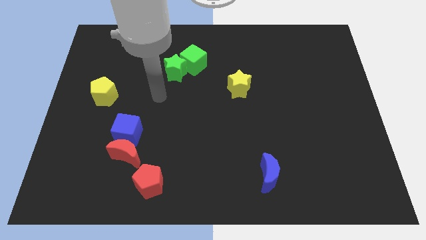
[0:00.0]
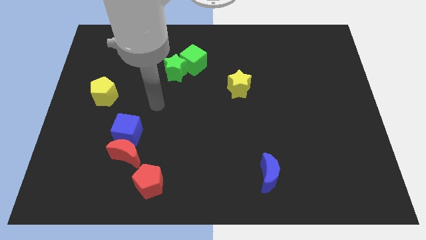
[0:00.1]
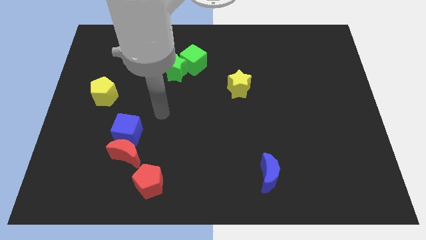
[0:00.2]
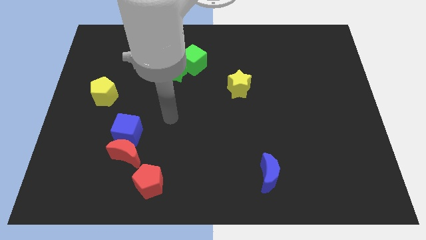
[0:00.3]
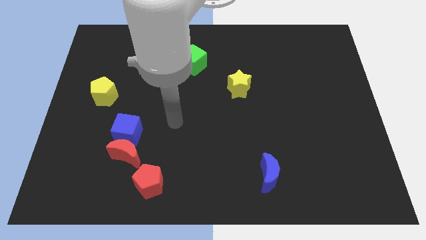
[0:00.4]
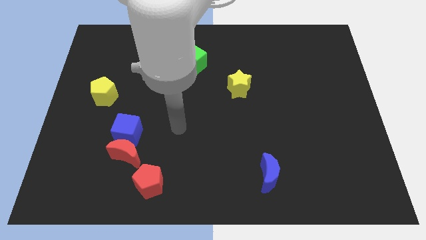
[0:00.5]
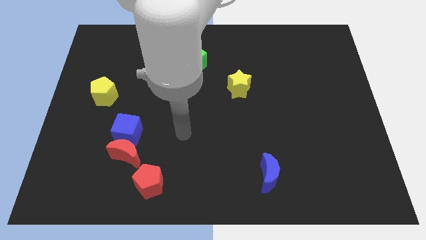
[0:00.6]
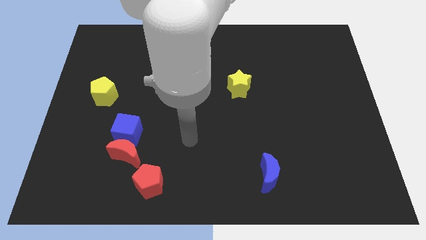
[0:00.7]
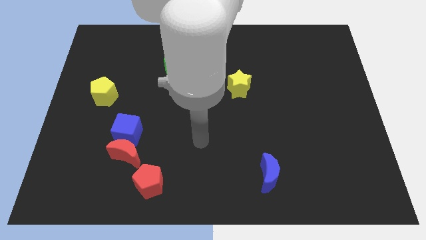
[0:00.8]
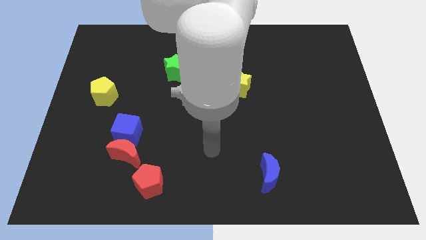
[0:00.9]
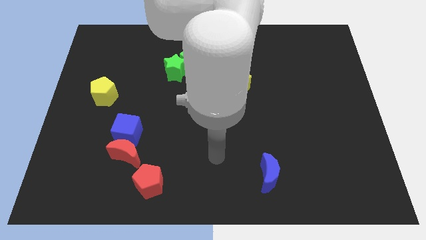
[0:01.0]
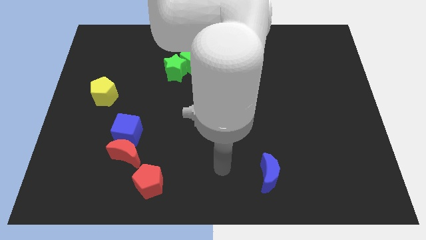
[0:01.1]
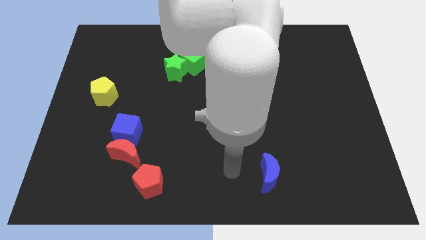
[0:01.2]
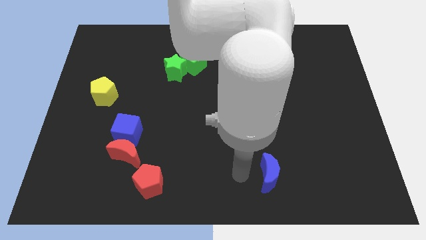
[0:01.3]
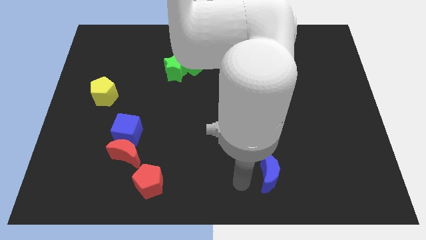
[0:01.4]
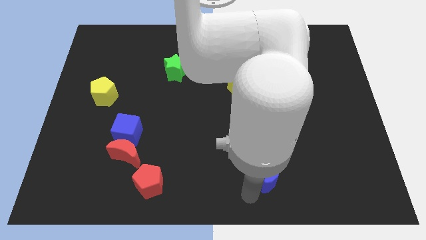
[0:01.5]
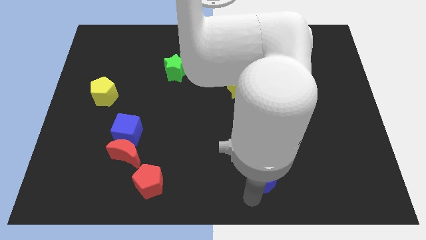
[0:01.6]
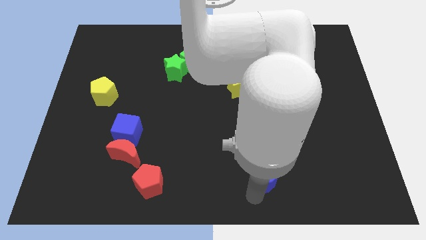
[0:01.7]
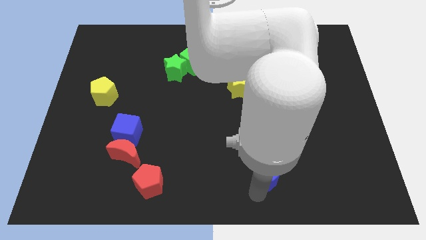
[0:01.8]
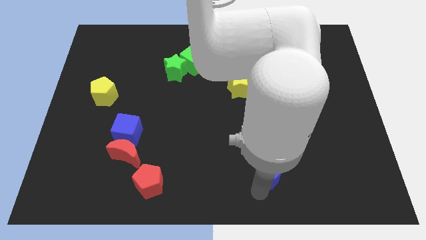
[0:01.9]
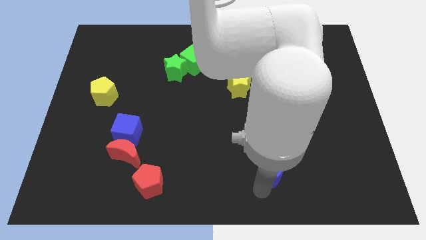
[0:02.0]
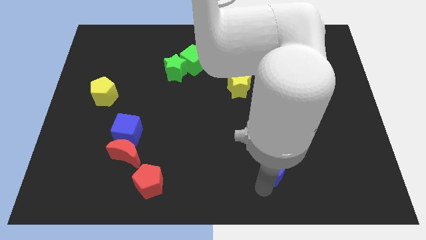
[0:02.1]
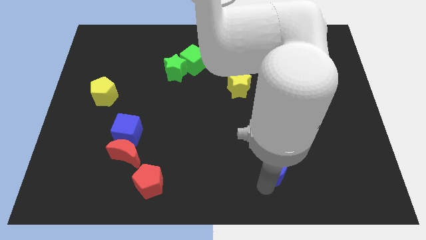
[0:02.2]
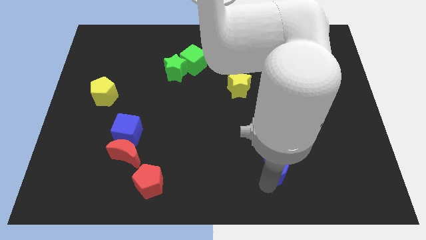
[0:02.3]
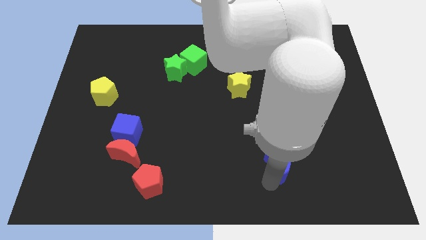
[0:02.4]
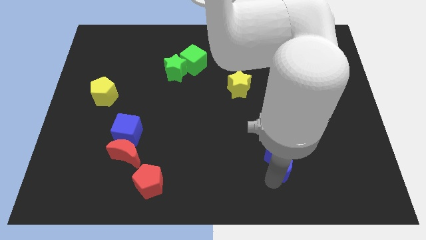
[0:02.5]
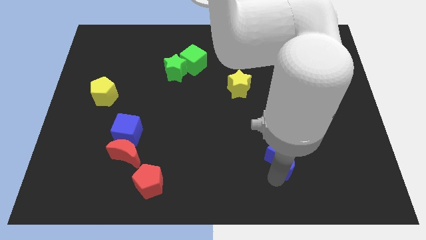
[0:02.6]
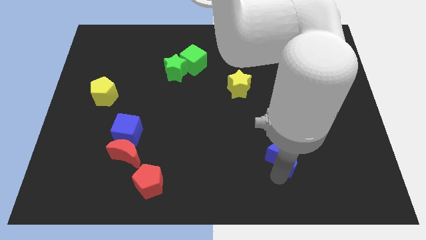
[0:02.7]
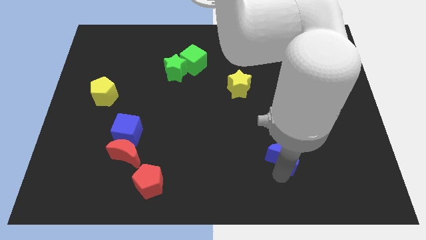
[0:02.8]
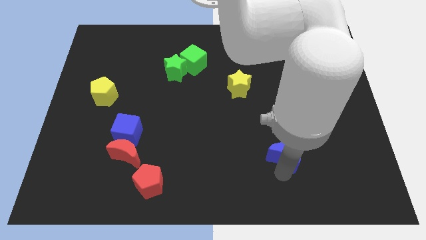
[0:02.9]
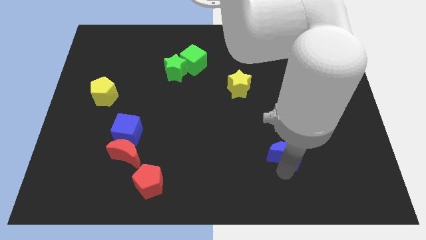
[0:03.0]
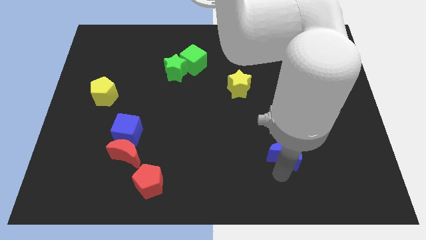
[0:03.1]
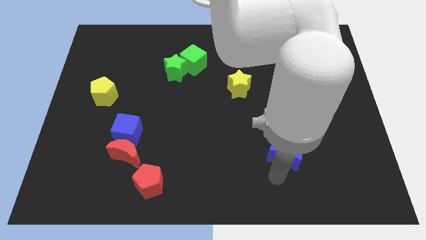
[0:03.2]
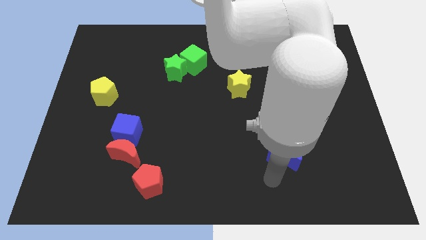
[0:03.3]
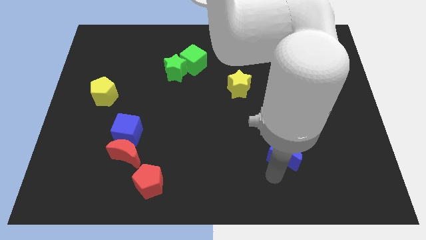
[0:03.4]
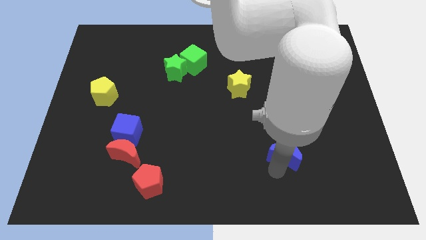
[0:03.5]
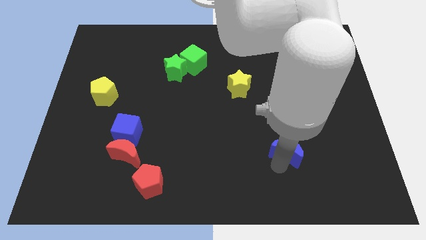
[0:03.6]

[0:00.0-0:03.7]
move the blue moon diagonally upwards and right somewhat

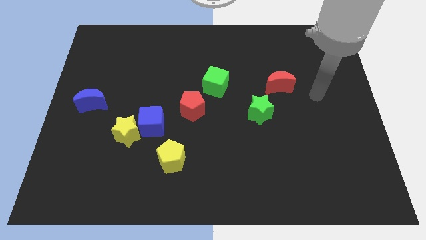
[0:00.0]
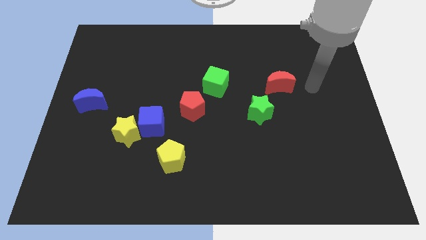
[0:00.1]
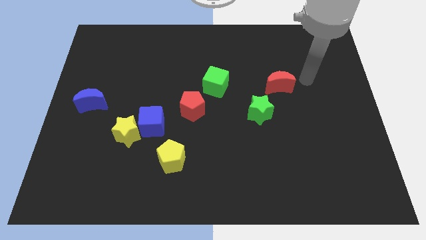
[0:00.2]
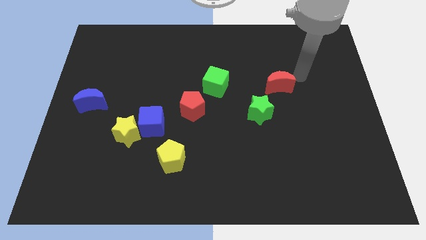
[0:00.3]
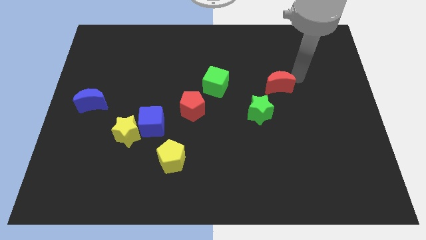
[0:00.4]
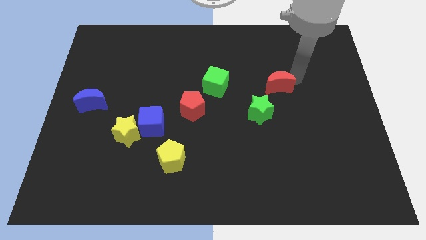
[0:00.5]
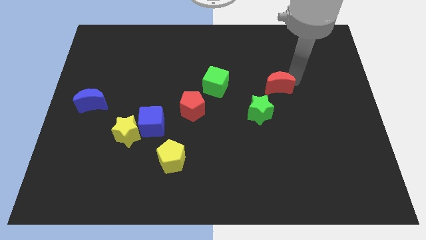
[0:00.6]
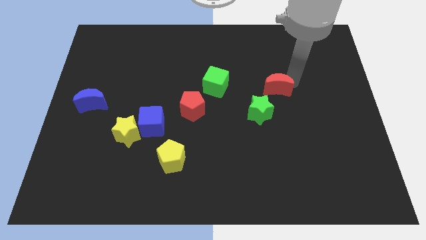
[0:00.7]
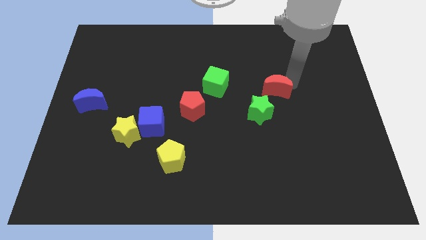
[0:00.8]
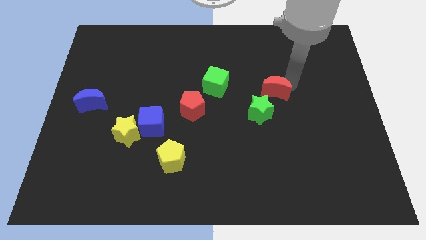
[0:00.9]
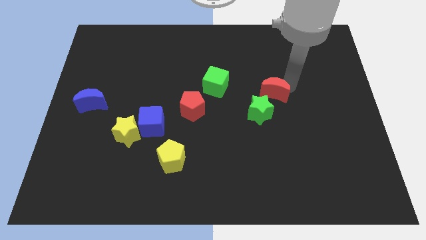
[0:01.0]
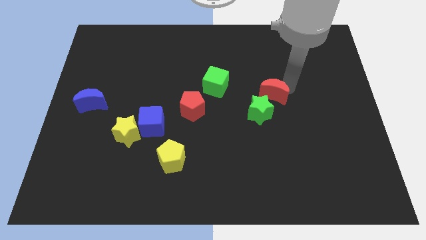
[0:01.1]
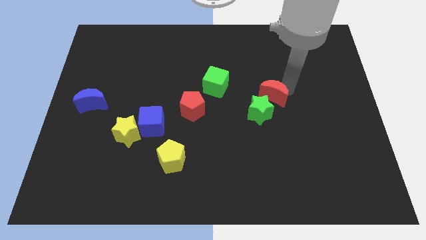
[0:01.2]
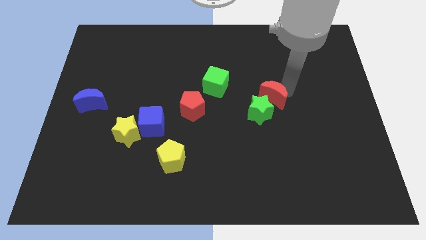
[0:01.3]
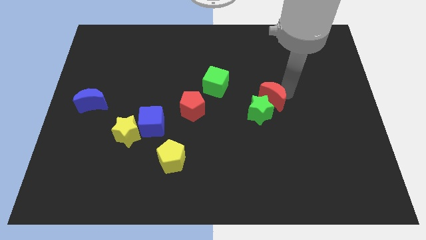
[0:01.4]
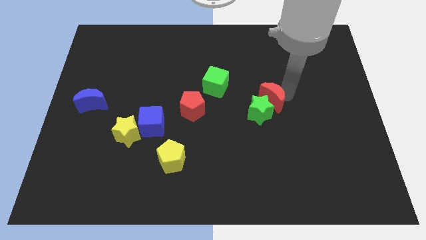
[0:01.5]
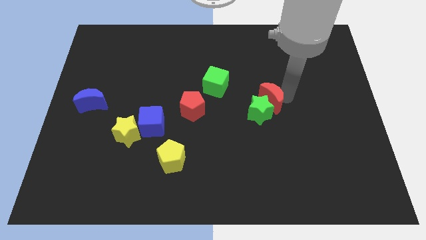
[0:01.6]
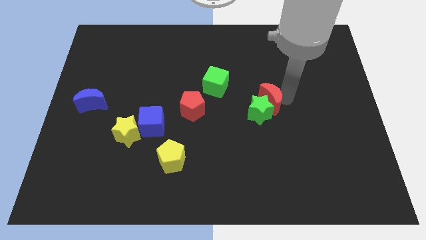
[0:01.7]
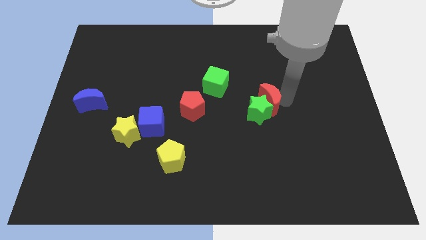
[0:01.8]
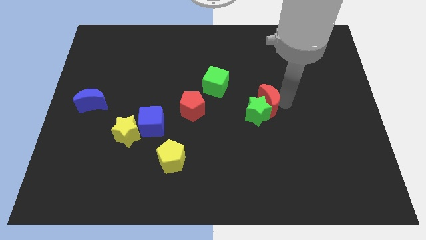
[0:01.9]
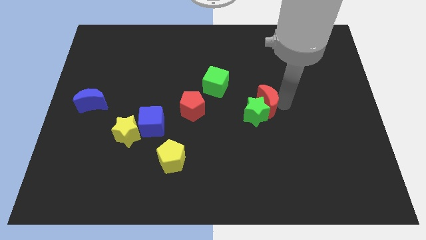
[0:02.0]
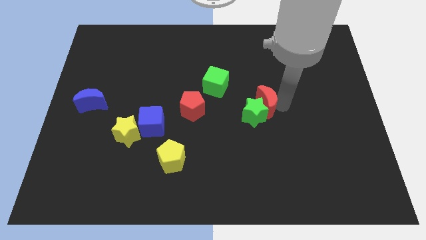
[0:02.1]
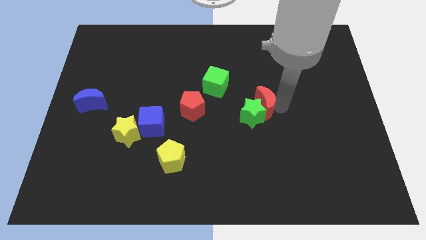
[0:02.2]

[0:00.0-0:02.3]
slightly move the red moon downwards and then to the left

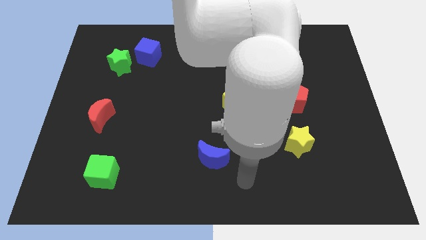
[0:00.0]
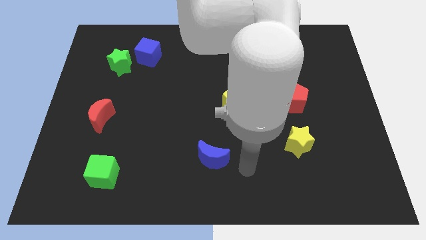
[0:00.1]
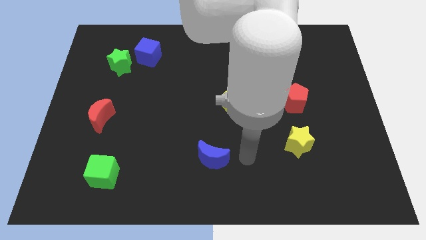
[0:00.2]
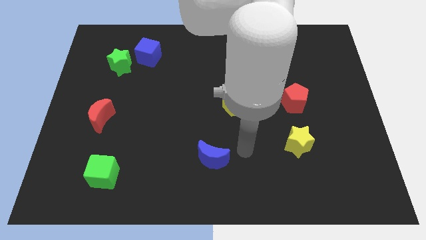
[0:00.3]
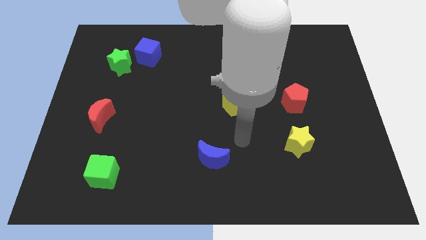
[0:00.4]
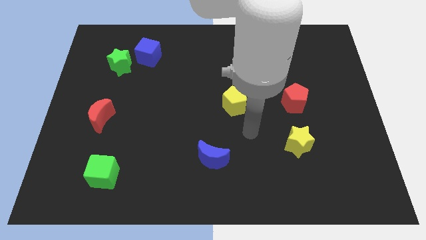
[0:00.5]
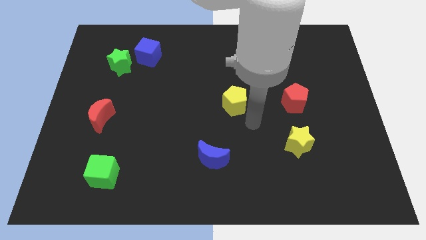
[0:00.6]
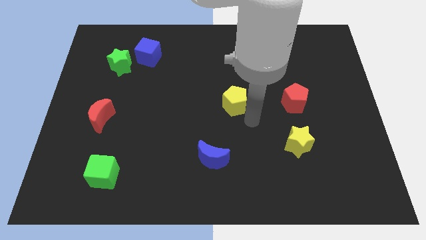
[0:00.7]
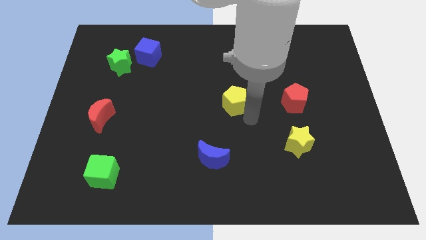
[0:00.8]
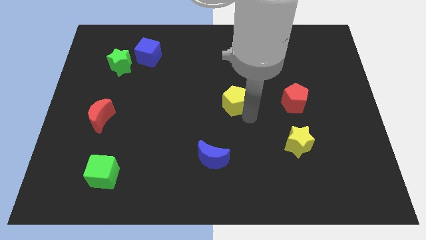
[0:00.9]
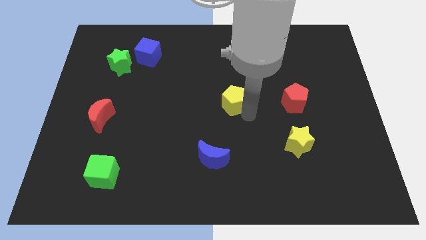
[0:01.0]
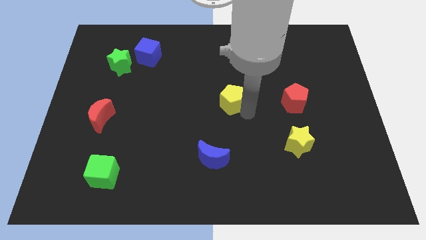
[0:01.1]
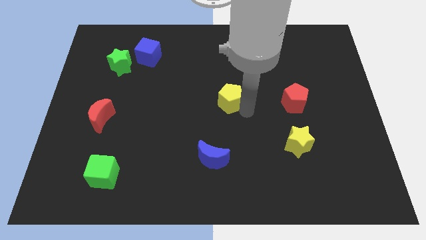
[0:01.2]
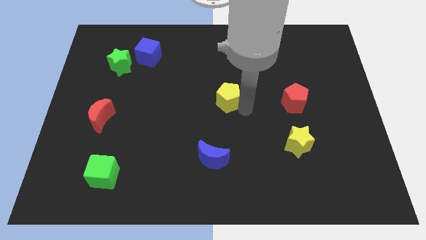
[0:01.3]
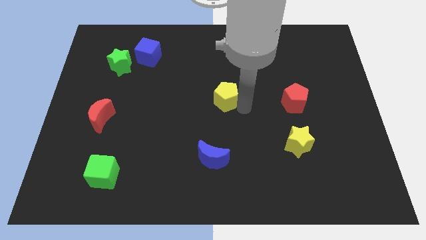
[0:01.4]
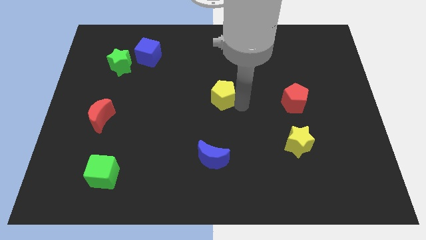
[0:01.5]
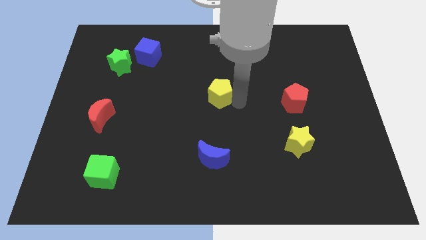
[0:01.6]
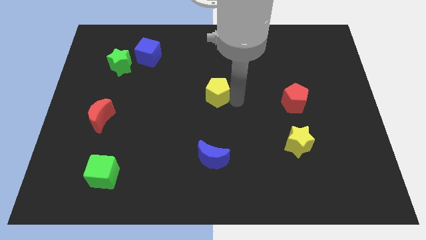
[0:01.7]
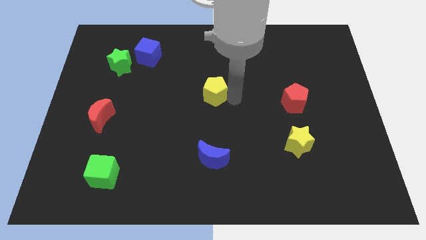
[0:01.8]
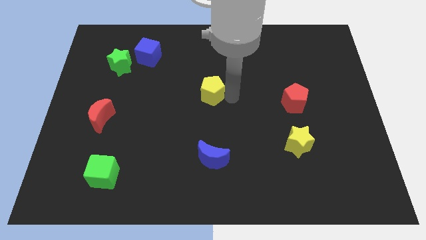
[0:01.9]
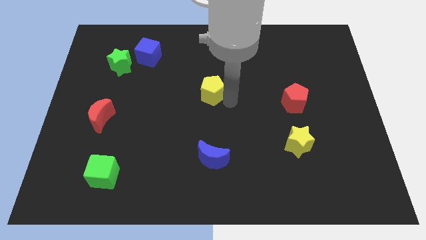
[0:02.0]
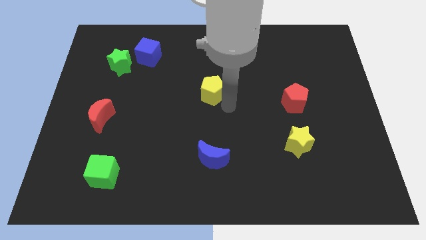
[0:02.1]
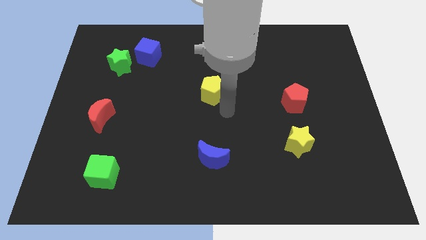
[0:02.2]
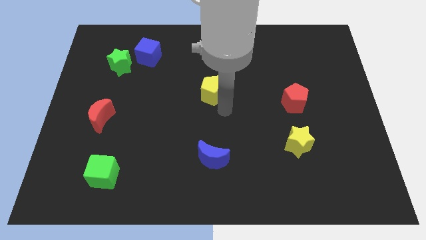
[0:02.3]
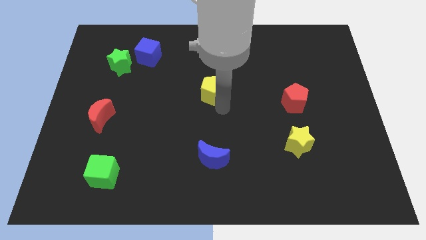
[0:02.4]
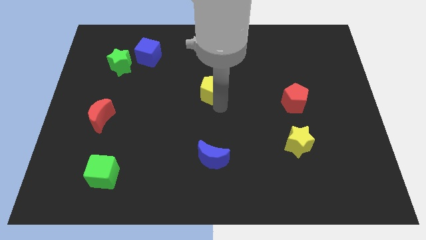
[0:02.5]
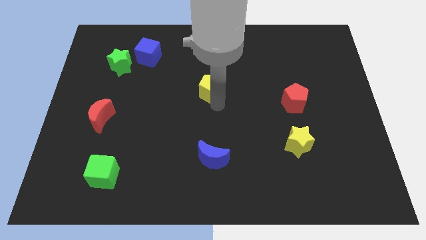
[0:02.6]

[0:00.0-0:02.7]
slide the yellow pentagon a little bit up and left diagonally
